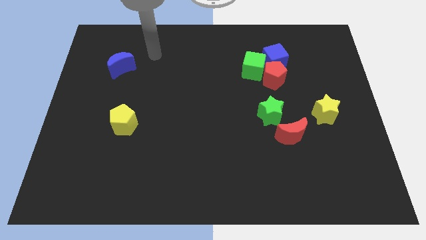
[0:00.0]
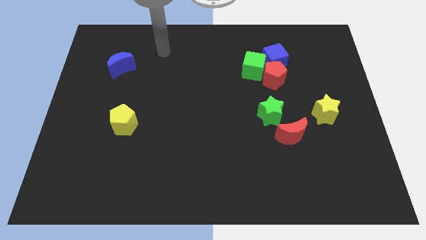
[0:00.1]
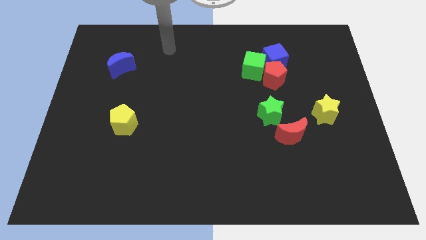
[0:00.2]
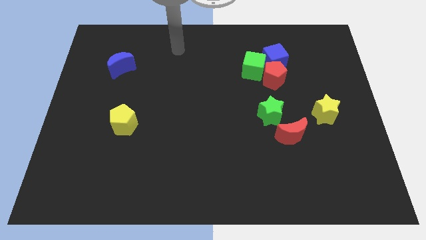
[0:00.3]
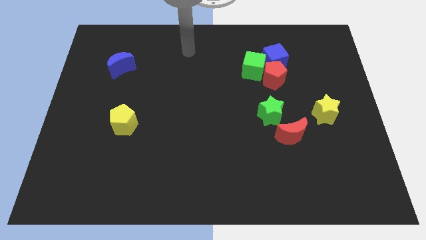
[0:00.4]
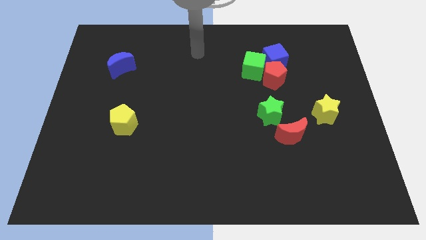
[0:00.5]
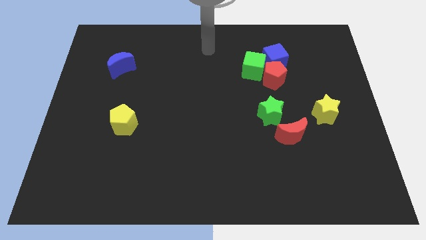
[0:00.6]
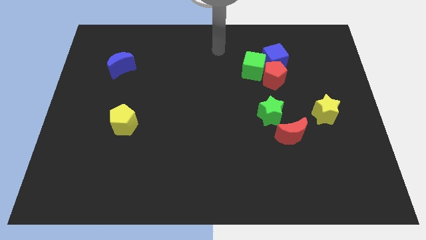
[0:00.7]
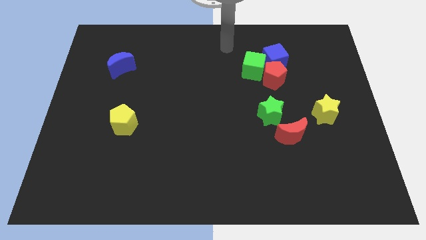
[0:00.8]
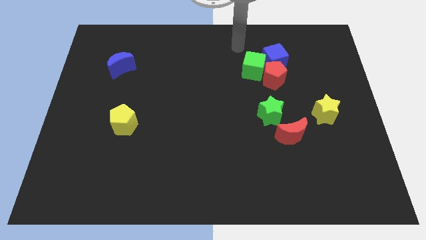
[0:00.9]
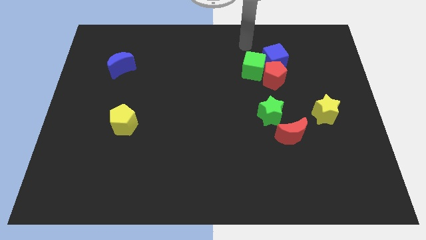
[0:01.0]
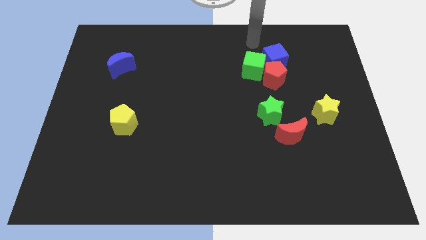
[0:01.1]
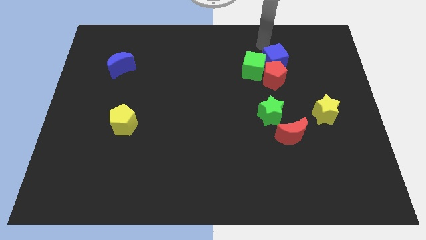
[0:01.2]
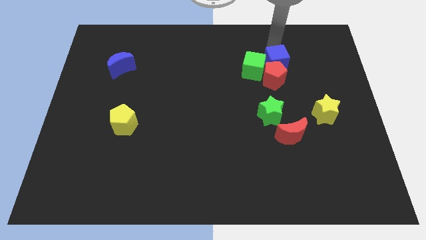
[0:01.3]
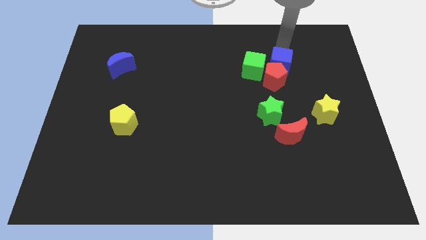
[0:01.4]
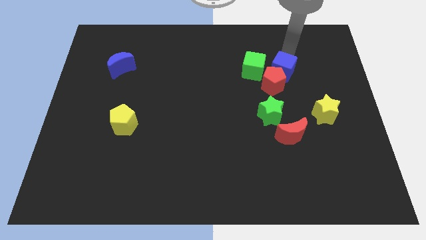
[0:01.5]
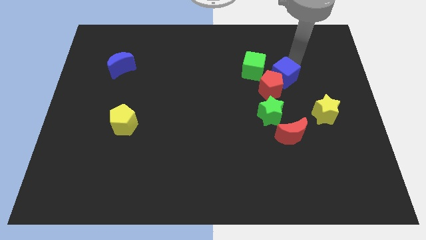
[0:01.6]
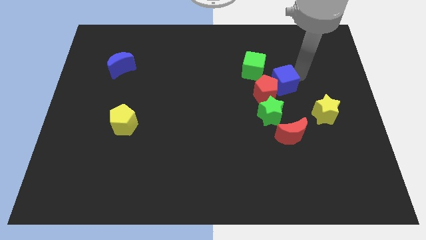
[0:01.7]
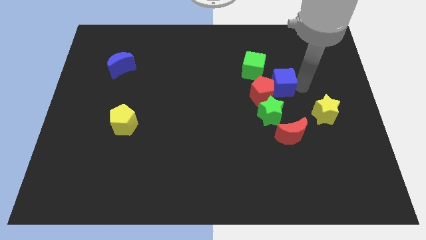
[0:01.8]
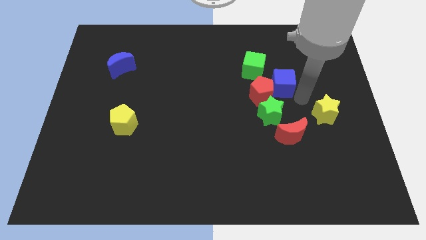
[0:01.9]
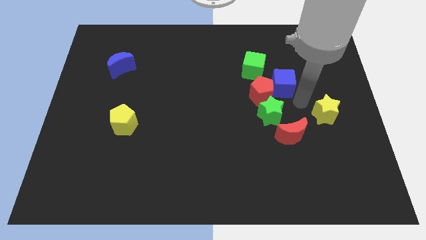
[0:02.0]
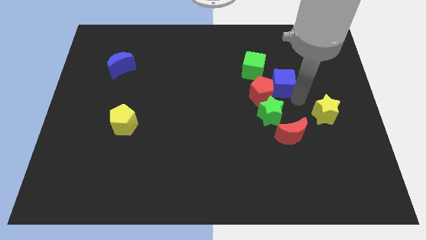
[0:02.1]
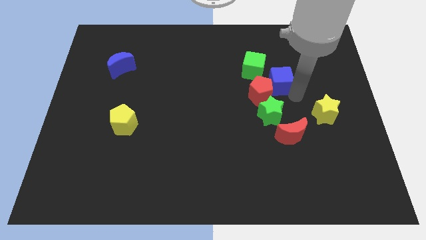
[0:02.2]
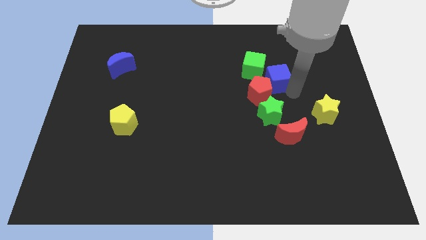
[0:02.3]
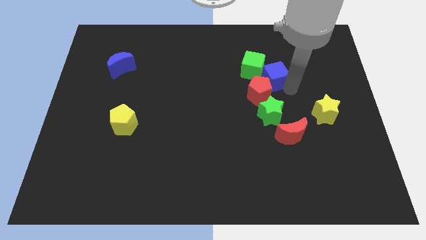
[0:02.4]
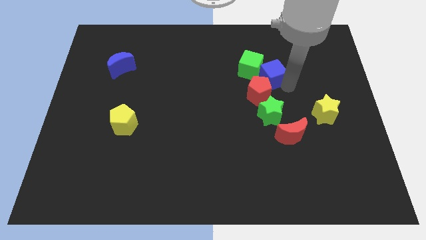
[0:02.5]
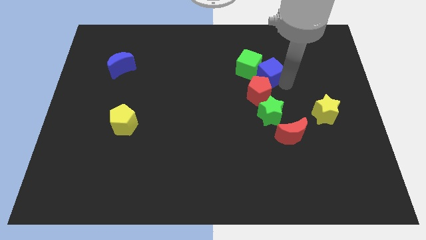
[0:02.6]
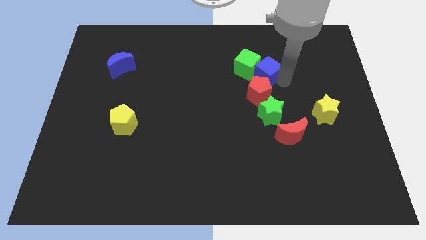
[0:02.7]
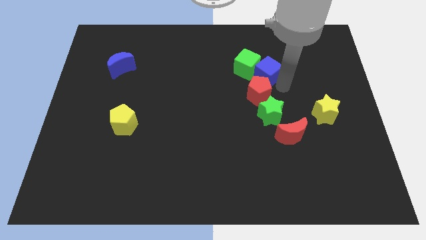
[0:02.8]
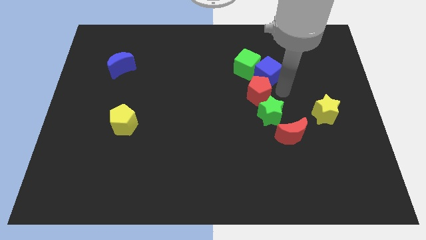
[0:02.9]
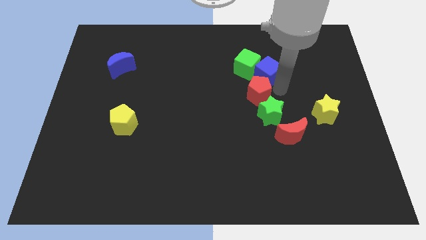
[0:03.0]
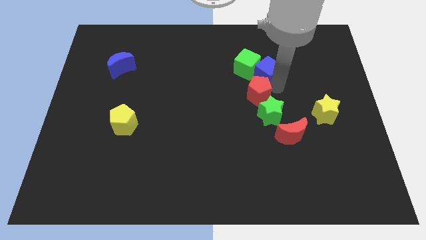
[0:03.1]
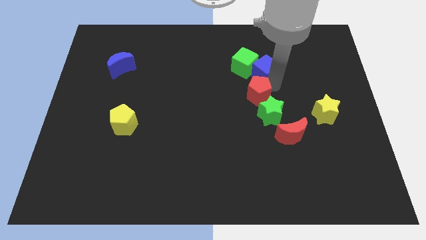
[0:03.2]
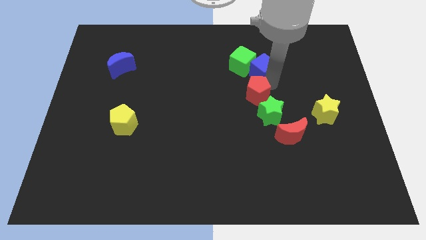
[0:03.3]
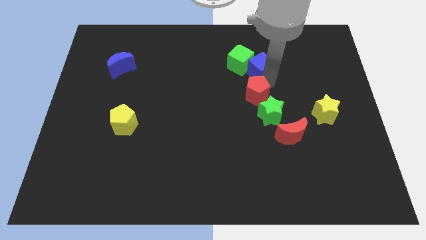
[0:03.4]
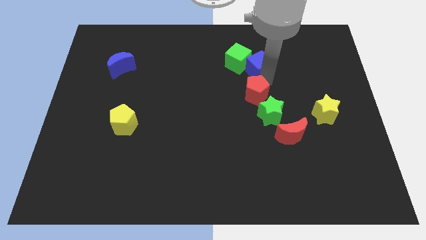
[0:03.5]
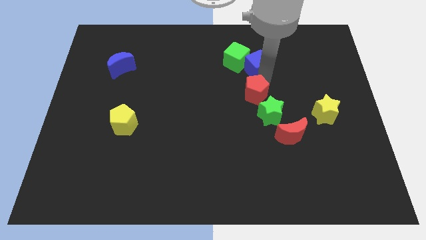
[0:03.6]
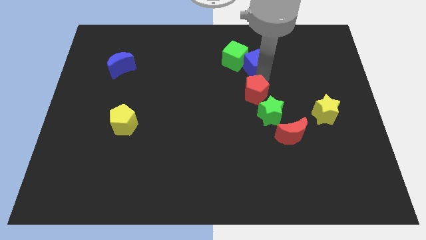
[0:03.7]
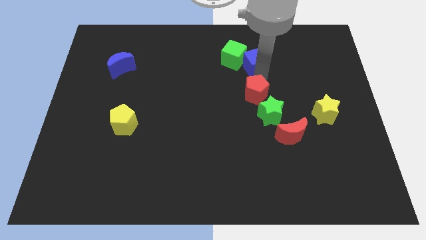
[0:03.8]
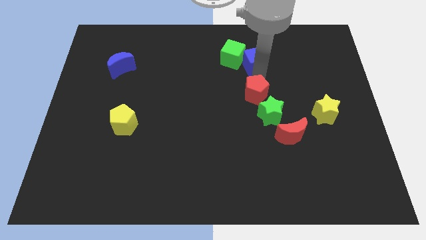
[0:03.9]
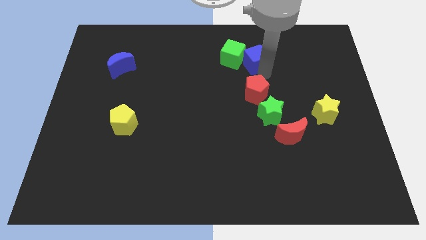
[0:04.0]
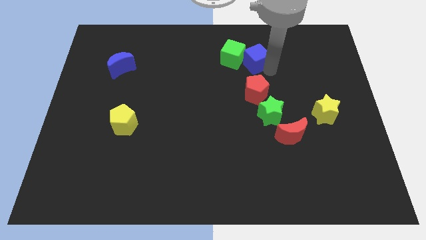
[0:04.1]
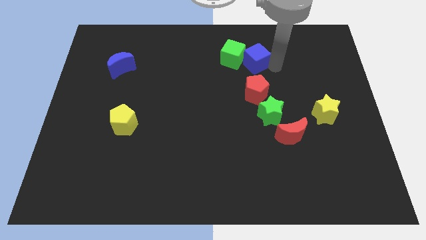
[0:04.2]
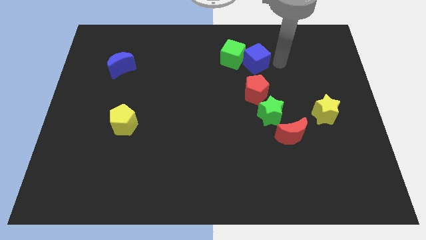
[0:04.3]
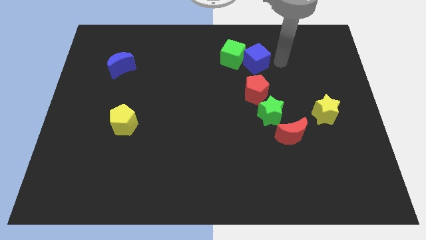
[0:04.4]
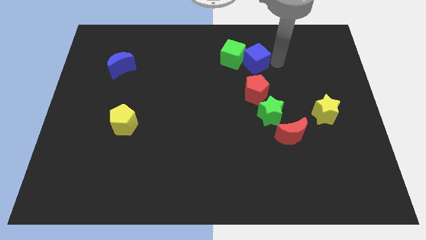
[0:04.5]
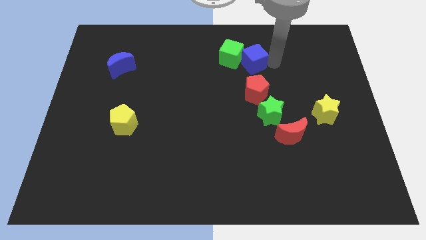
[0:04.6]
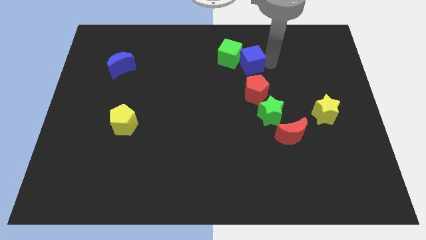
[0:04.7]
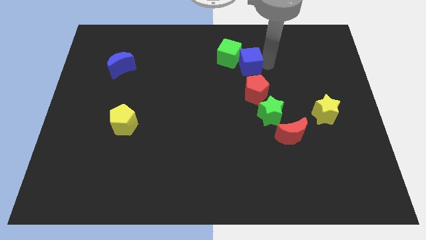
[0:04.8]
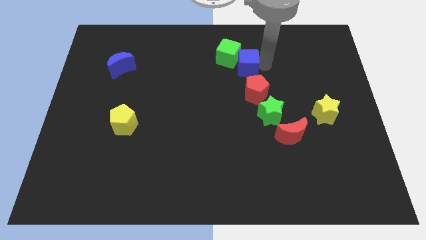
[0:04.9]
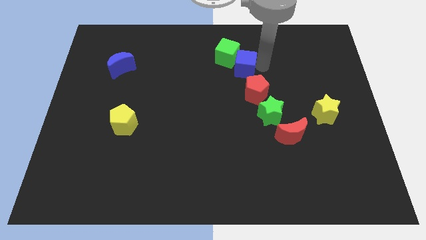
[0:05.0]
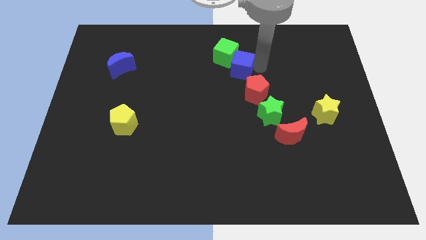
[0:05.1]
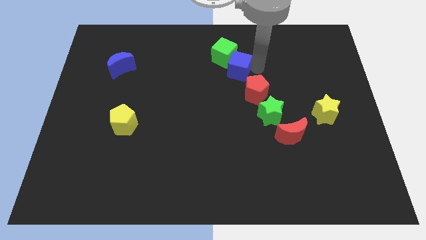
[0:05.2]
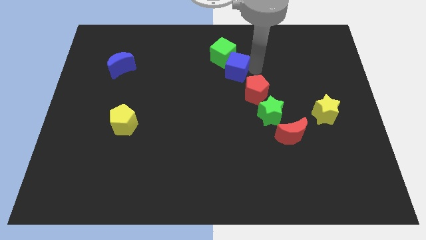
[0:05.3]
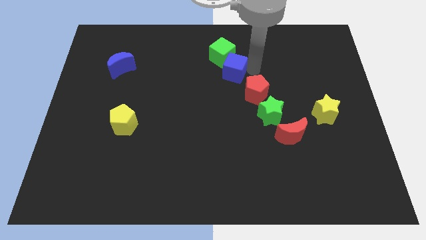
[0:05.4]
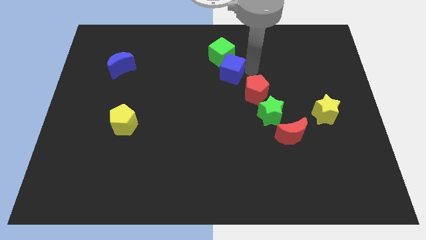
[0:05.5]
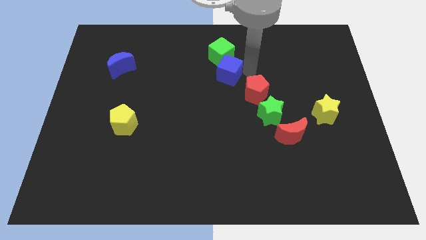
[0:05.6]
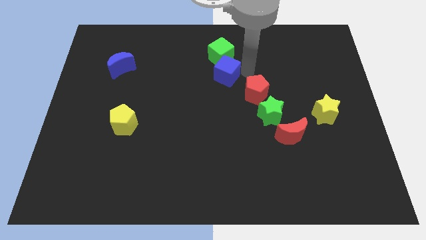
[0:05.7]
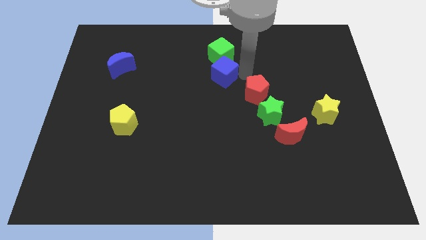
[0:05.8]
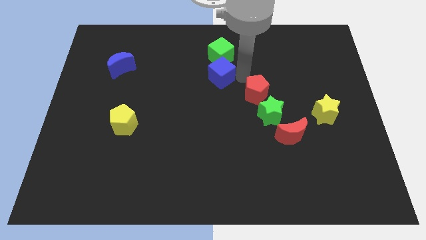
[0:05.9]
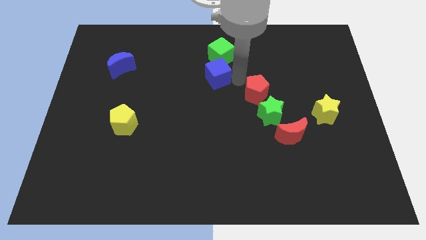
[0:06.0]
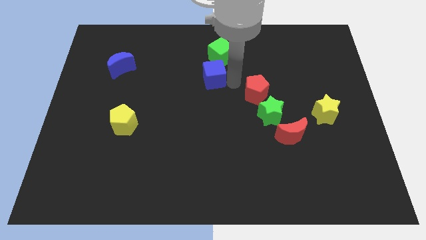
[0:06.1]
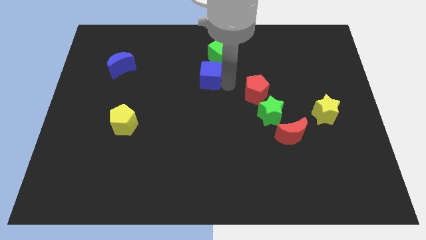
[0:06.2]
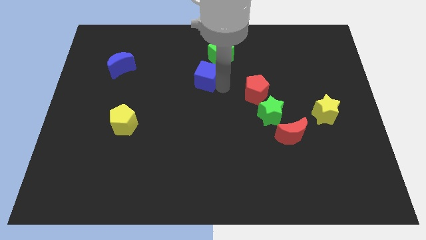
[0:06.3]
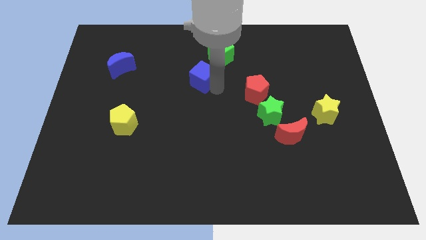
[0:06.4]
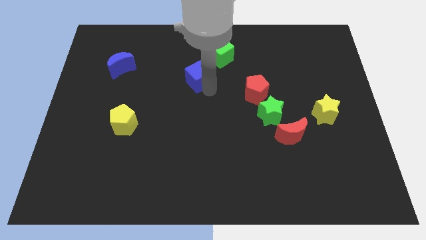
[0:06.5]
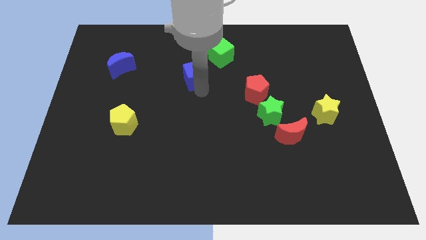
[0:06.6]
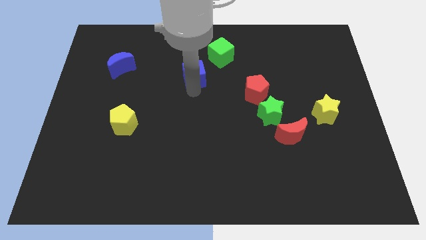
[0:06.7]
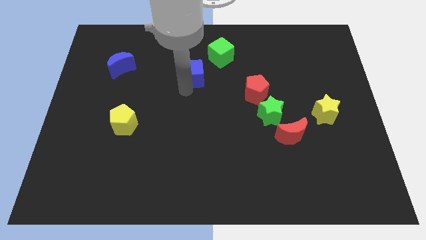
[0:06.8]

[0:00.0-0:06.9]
move the blue cube to the left

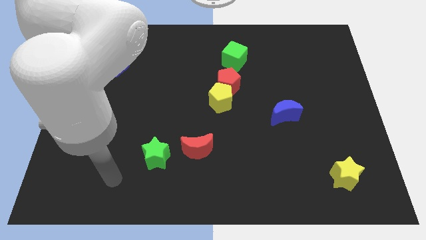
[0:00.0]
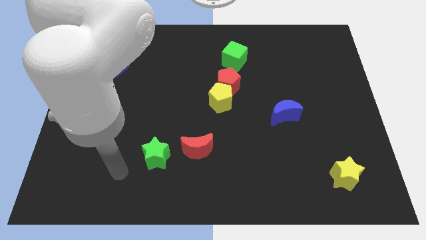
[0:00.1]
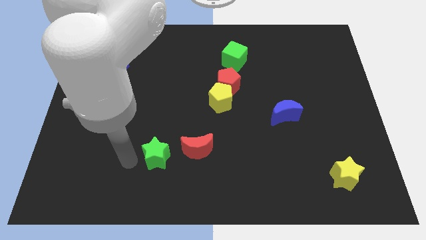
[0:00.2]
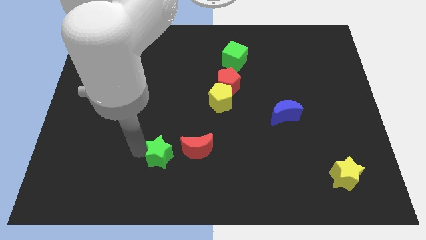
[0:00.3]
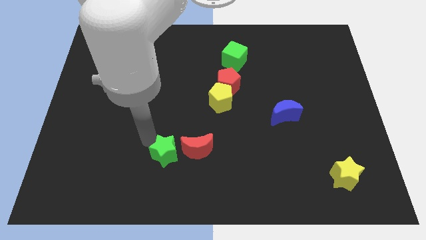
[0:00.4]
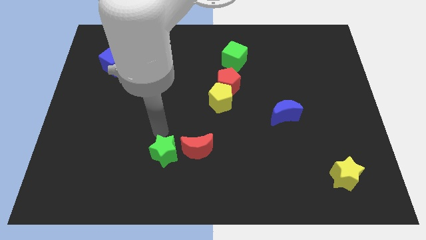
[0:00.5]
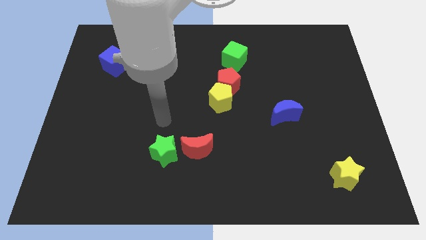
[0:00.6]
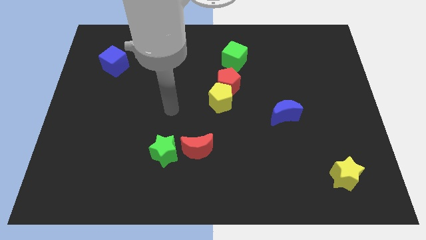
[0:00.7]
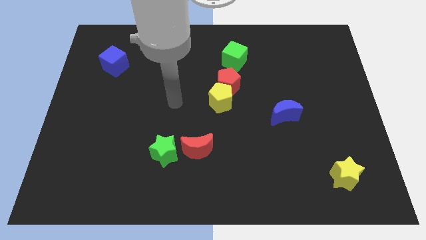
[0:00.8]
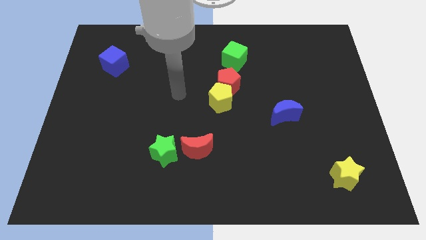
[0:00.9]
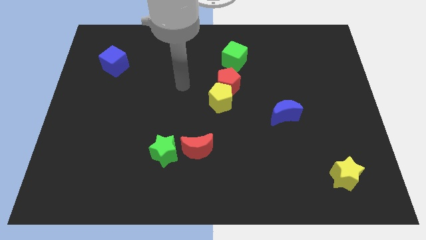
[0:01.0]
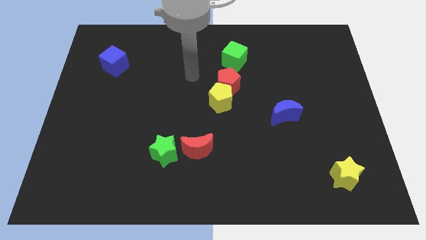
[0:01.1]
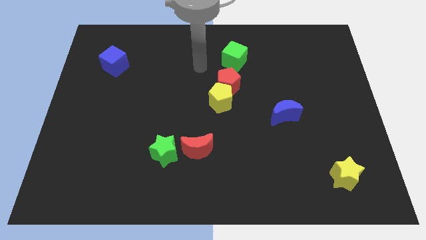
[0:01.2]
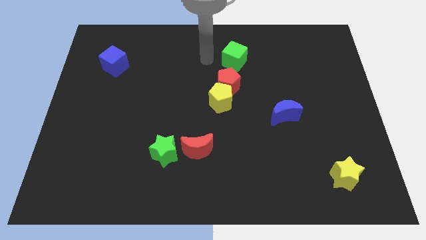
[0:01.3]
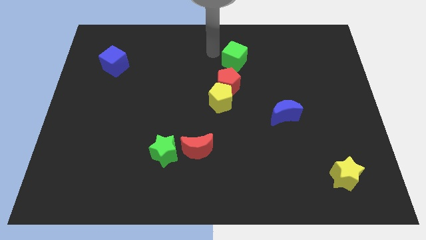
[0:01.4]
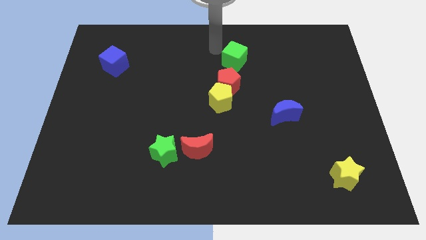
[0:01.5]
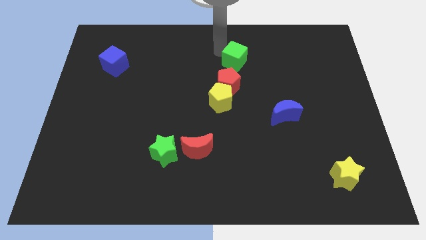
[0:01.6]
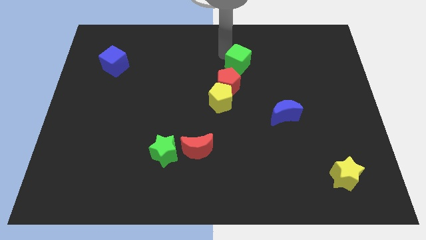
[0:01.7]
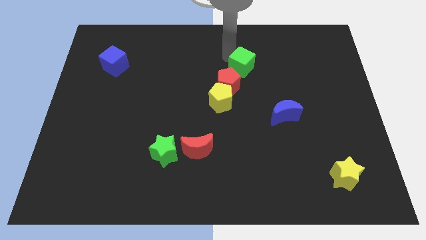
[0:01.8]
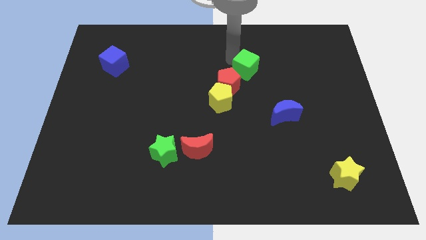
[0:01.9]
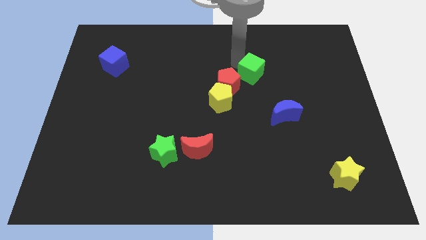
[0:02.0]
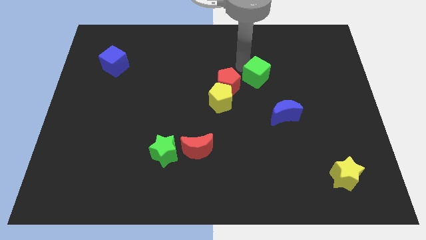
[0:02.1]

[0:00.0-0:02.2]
move the green cube downwards and to the right diagonally a little bit
